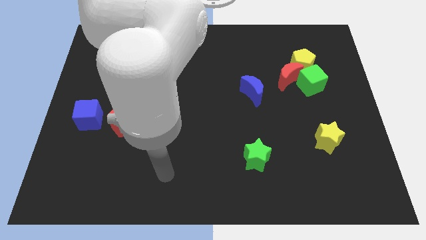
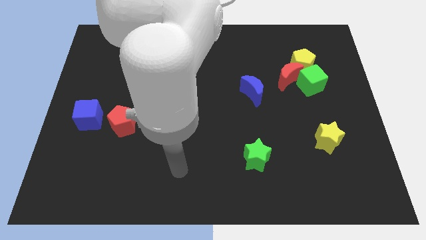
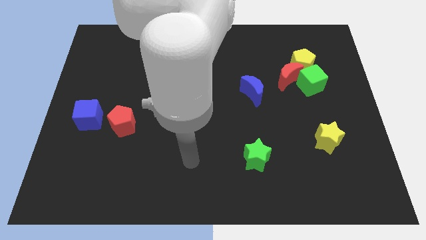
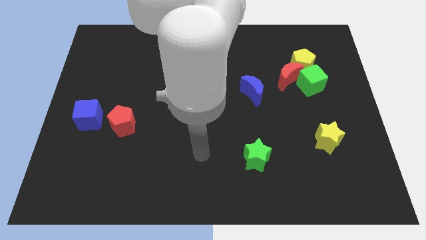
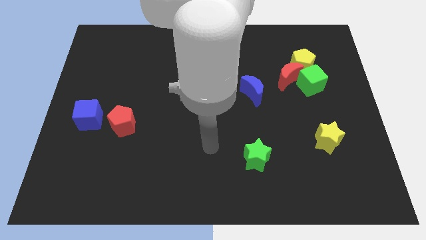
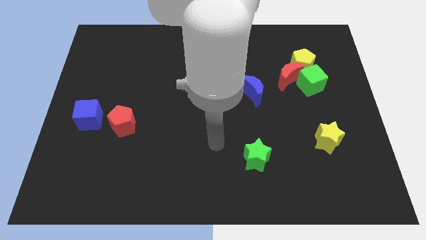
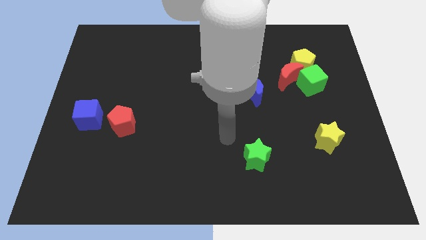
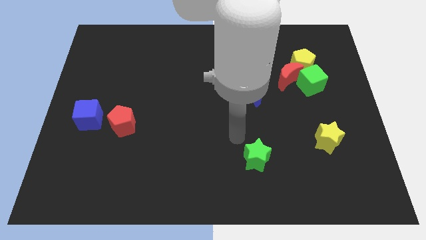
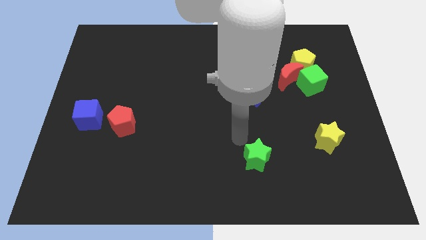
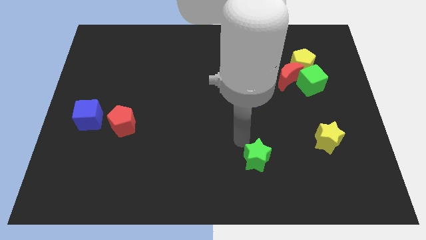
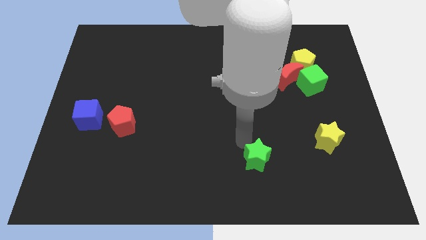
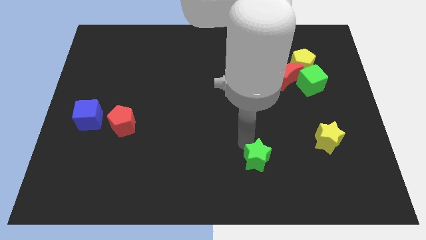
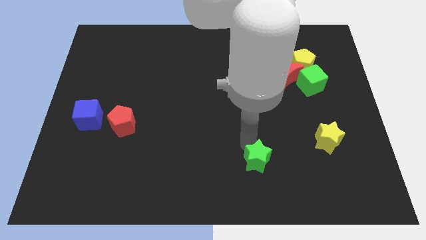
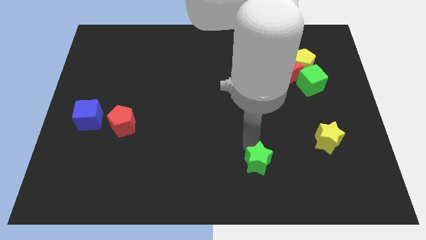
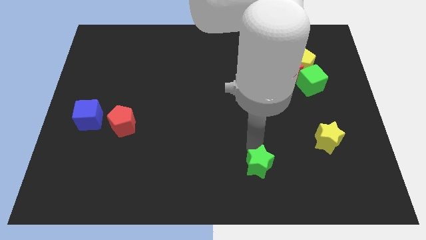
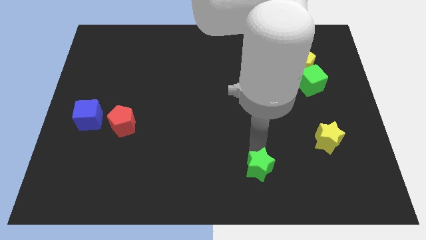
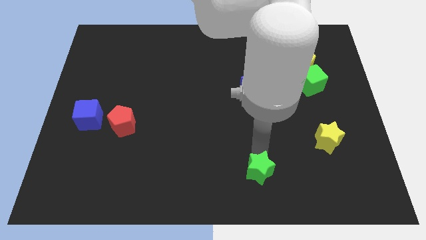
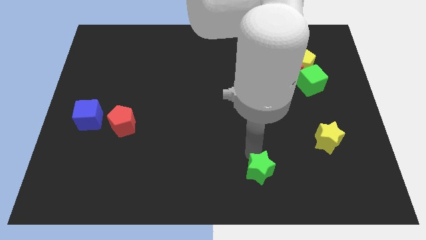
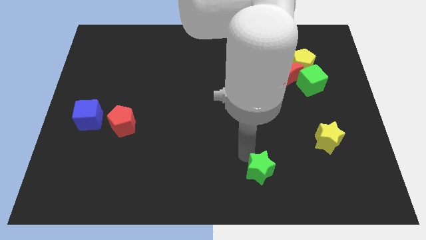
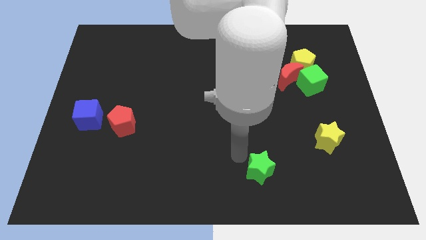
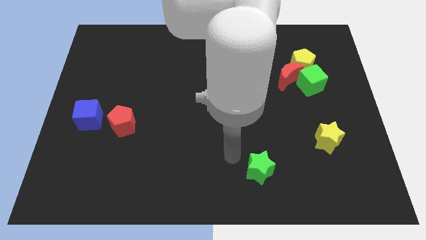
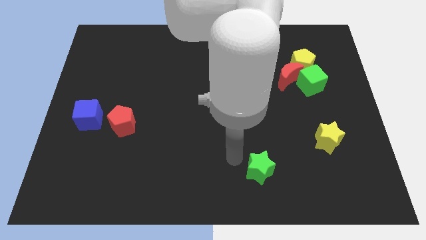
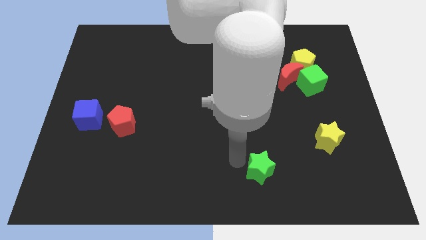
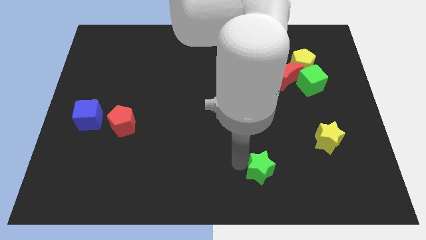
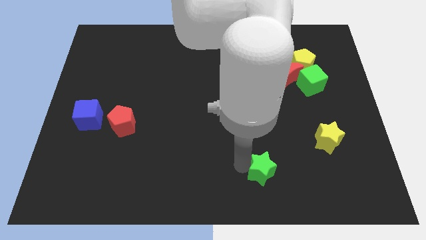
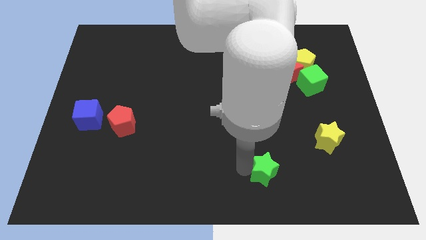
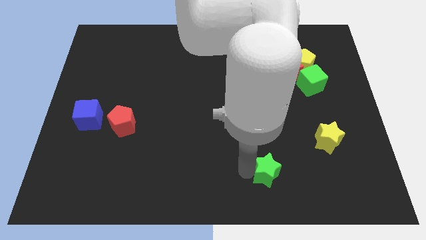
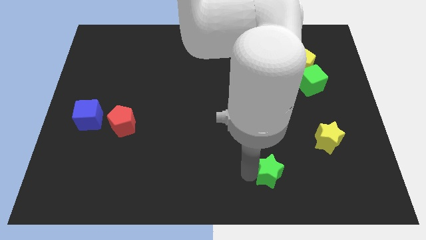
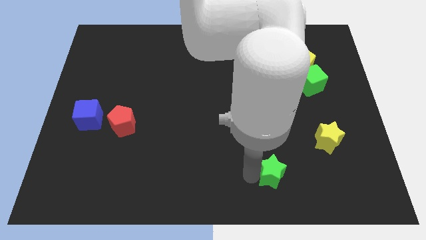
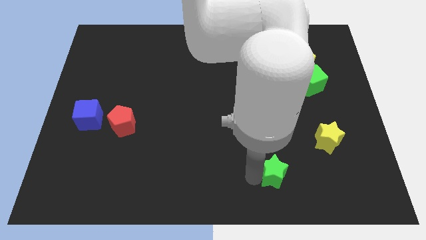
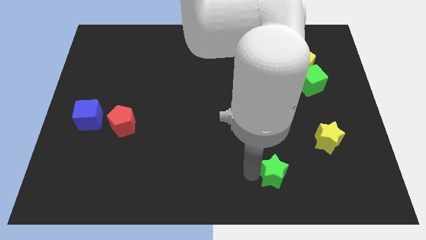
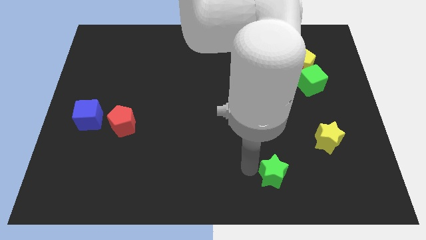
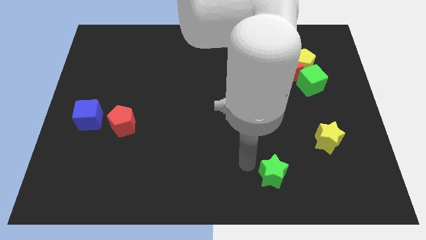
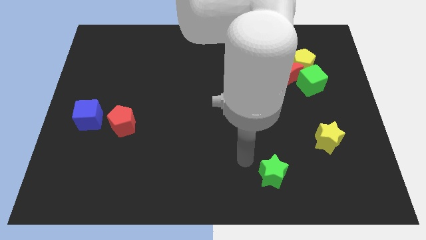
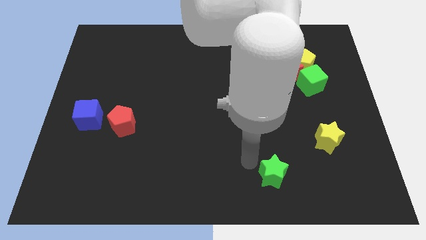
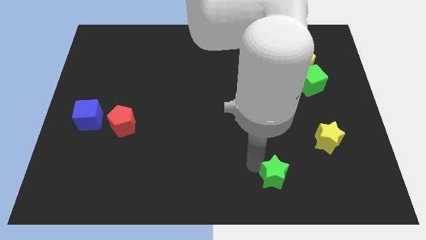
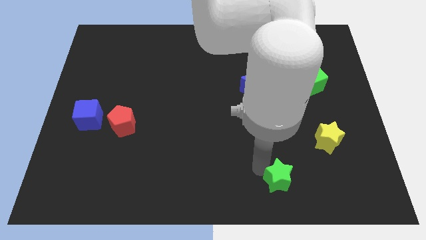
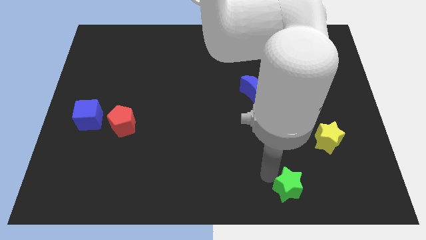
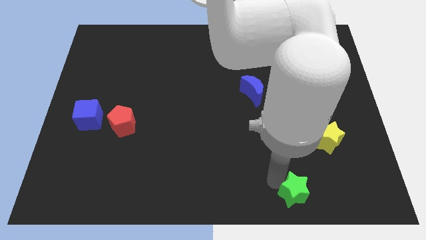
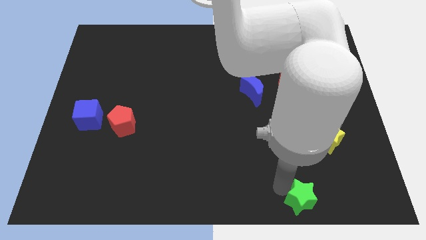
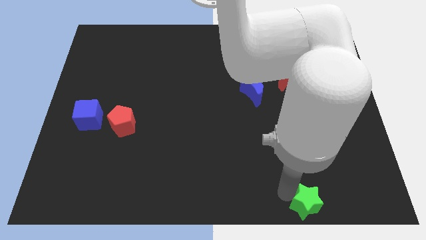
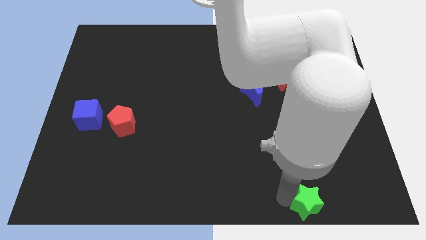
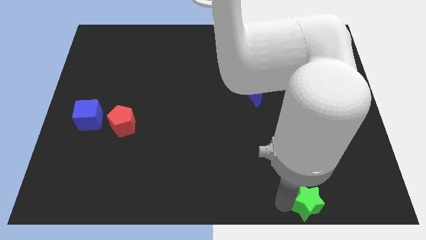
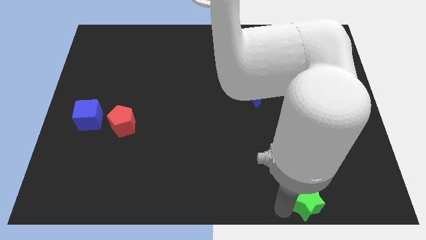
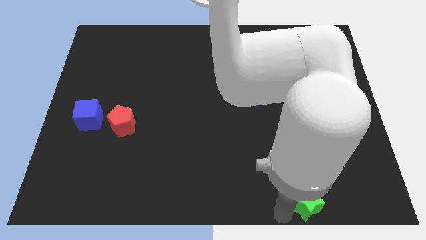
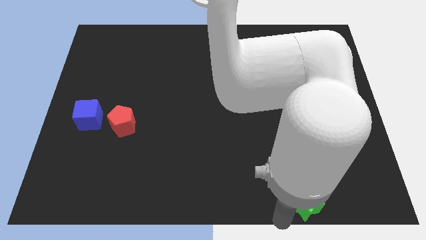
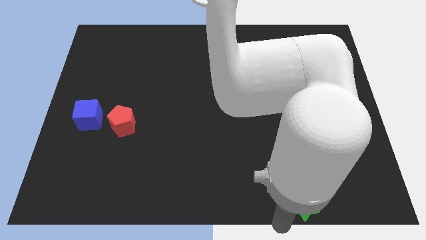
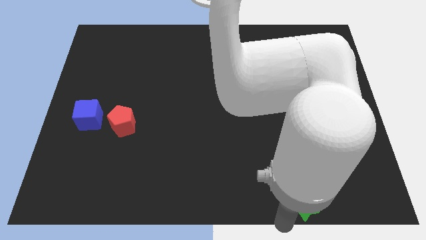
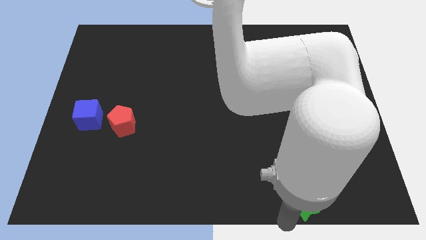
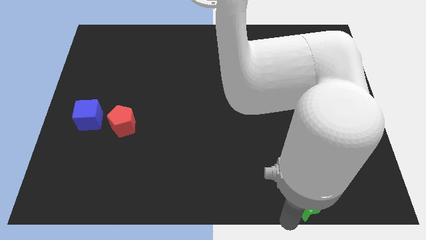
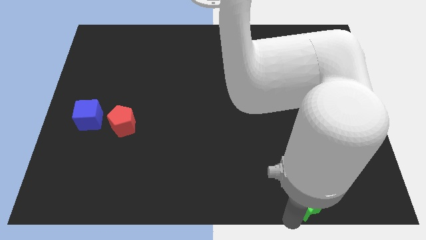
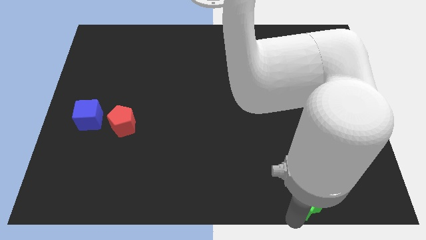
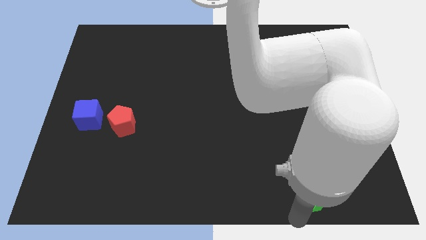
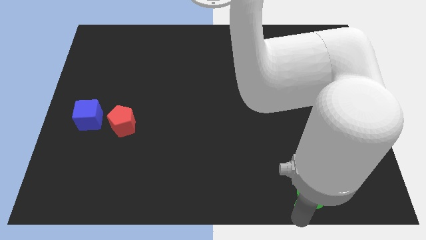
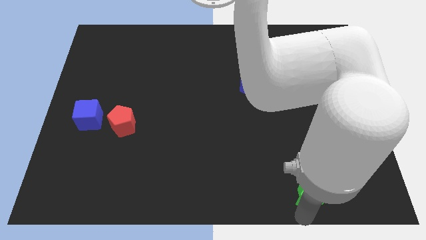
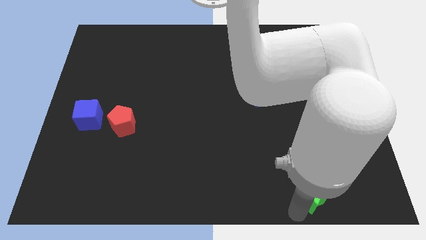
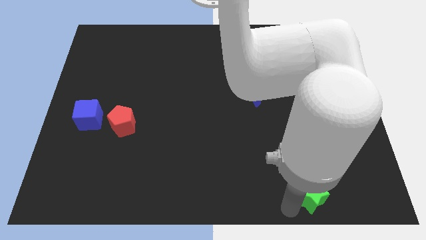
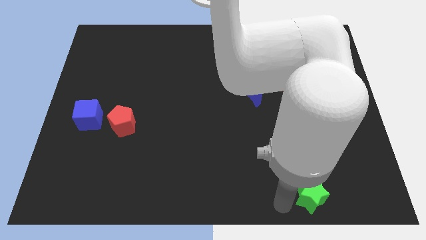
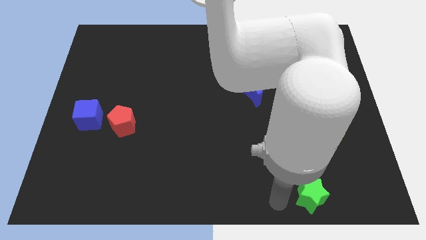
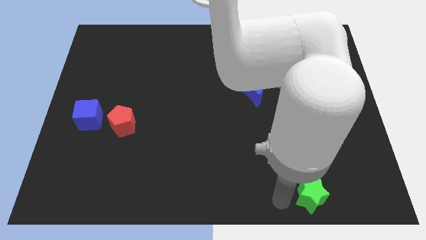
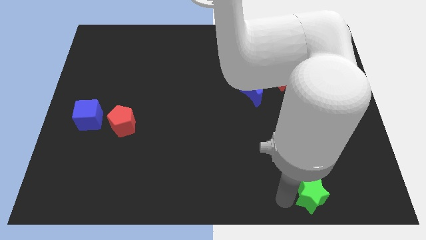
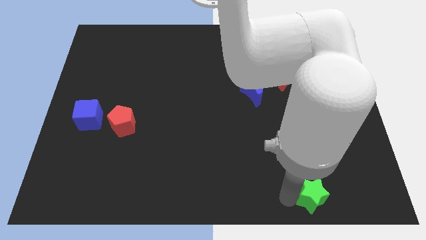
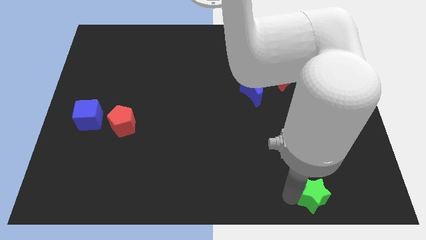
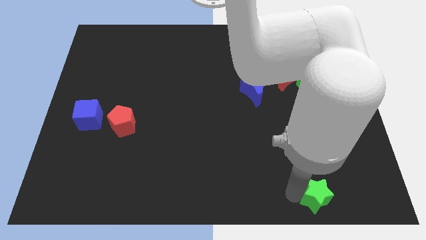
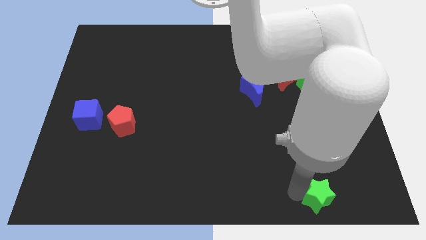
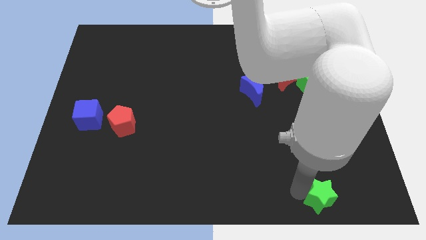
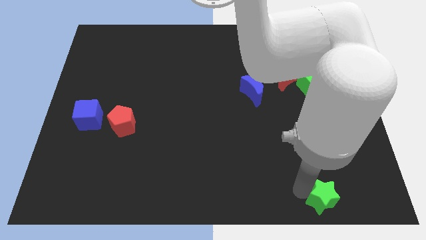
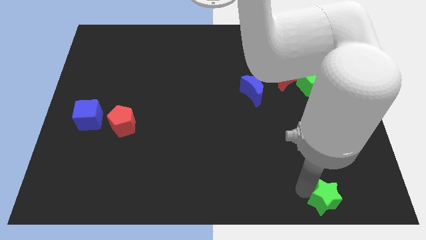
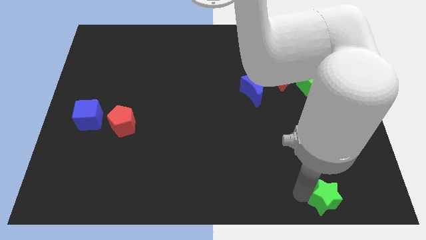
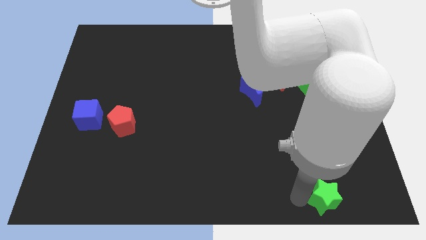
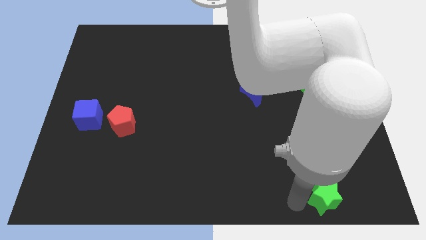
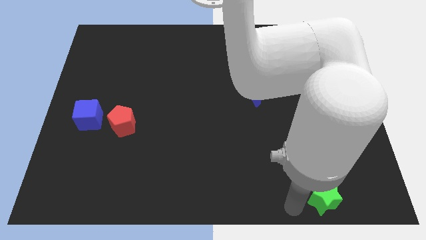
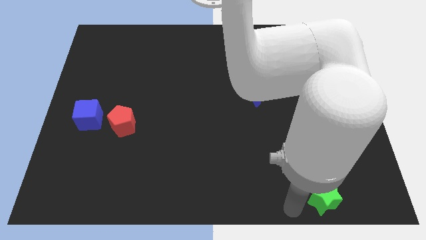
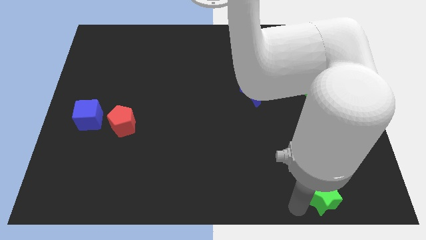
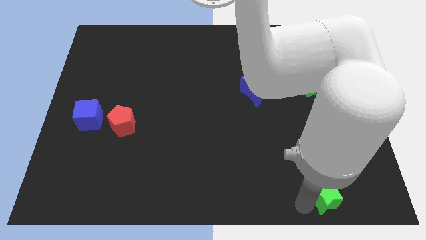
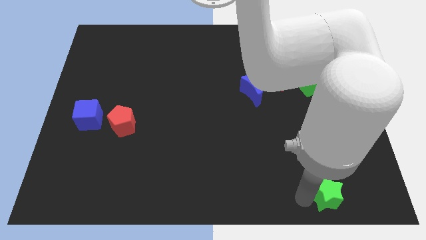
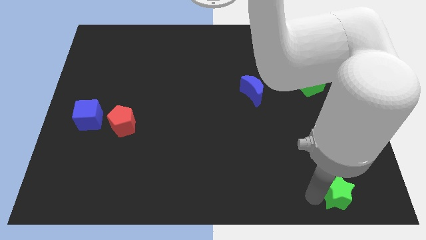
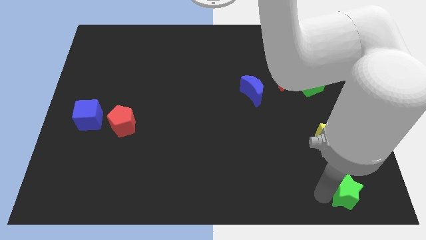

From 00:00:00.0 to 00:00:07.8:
put the green star to the bottom right
